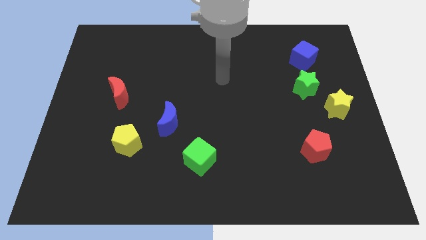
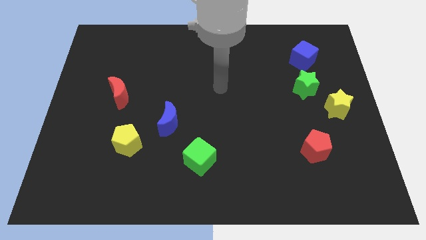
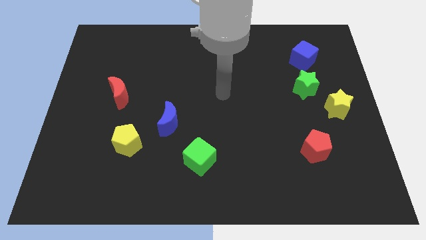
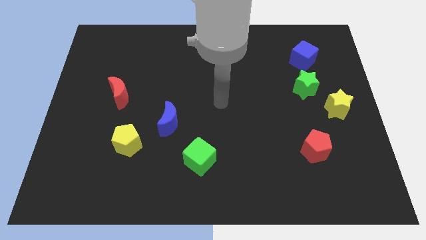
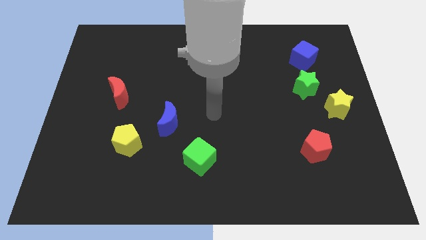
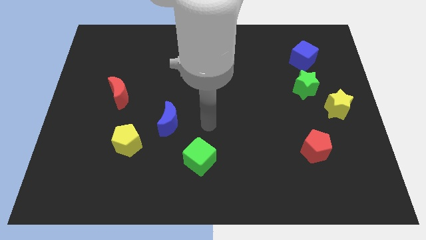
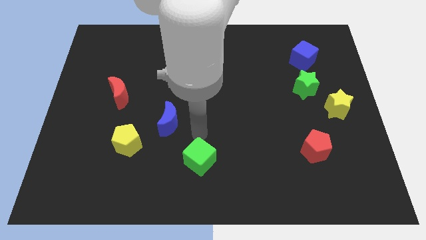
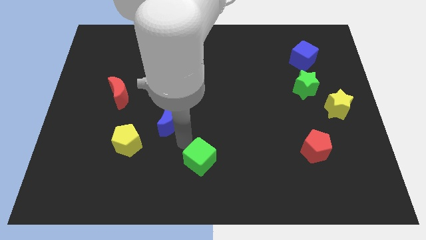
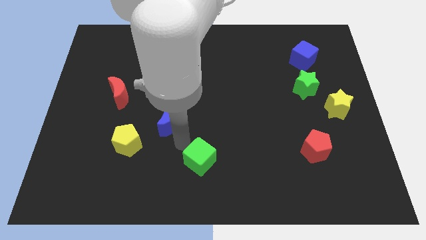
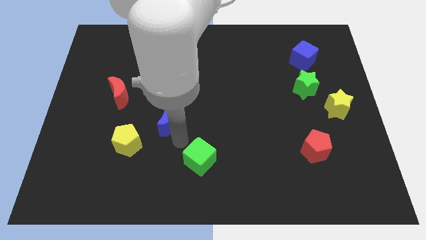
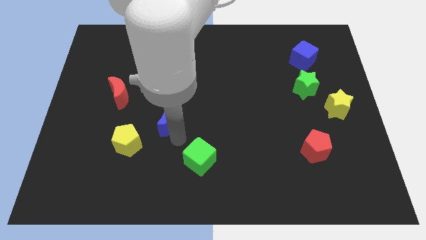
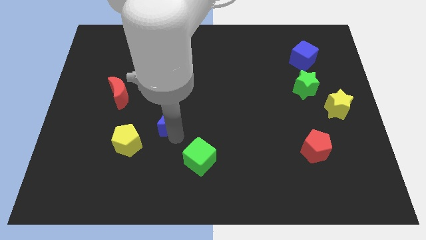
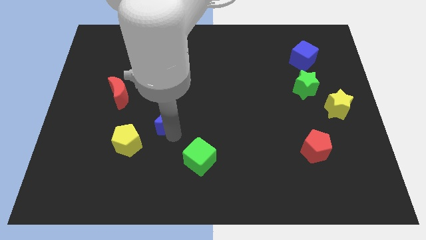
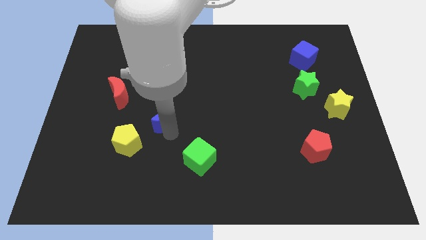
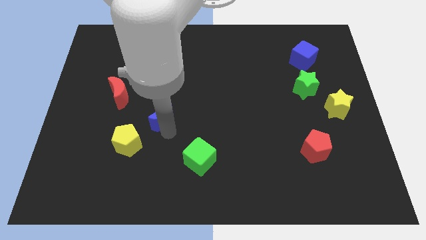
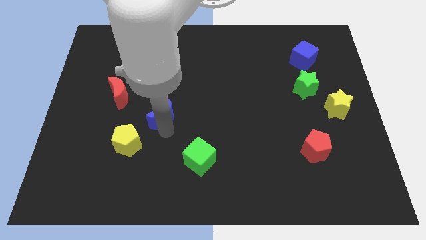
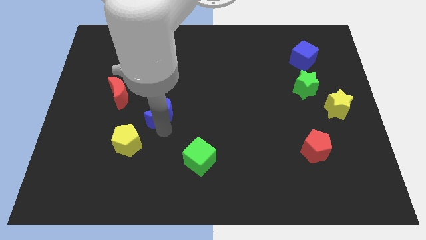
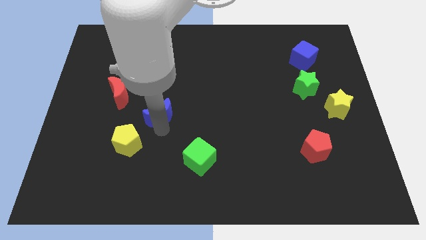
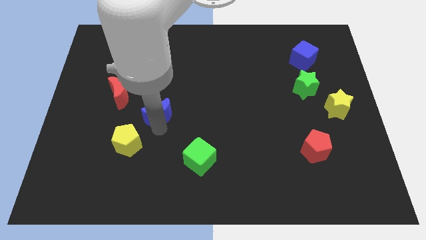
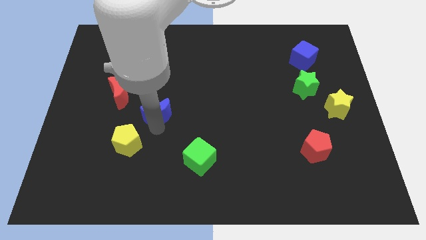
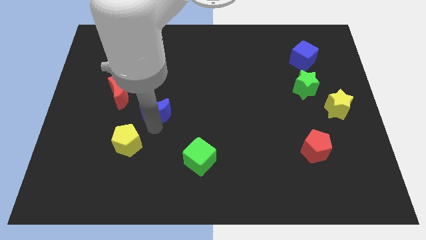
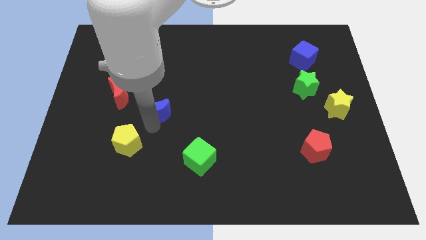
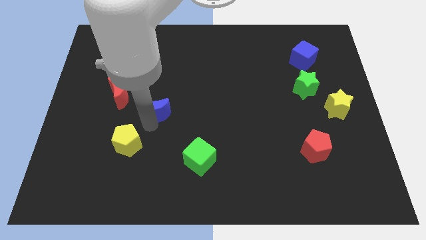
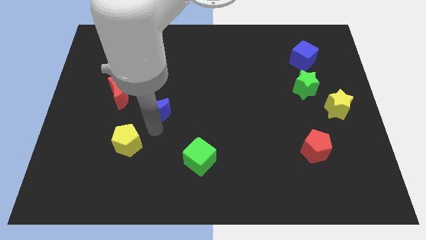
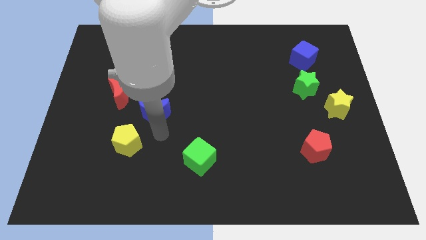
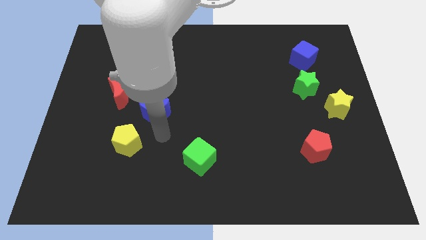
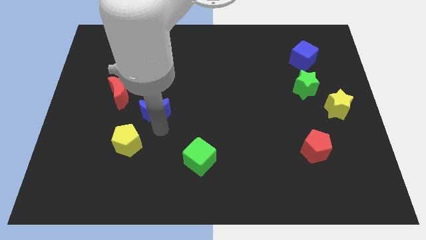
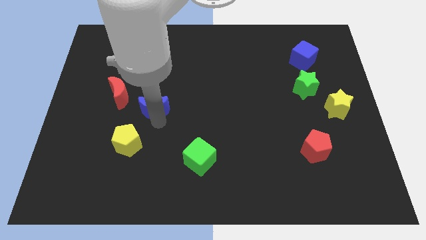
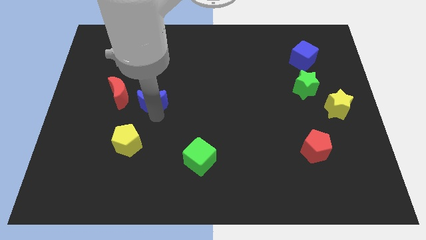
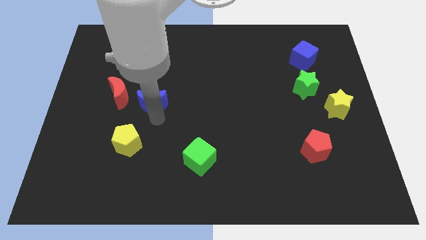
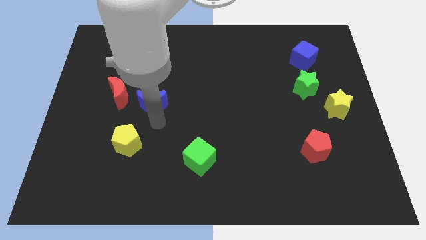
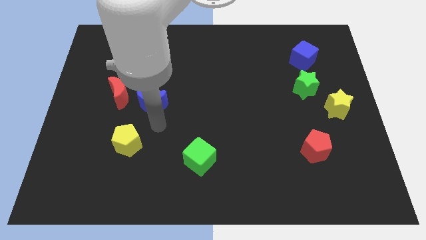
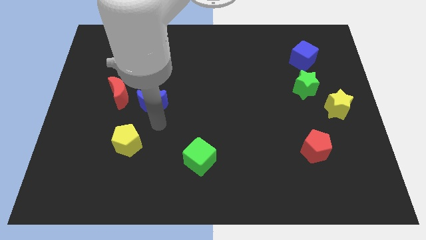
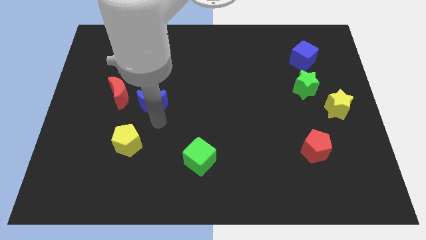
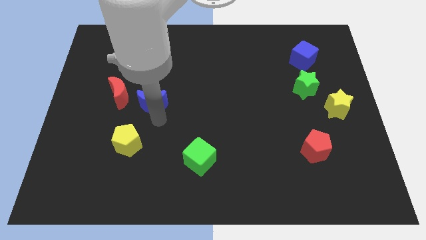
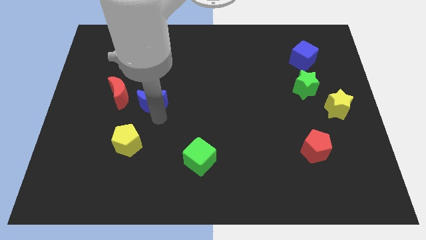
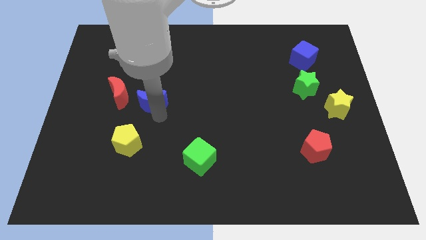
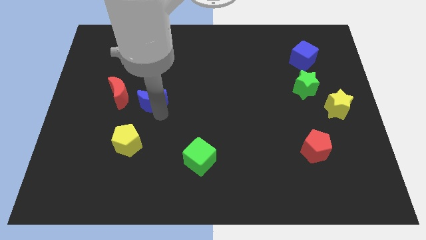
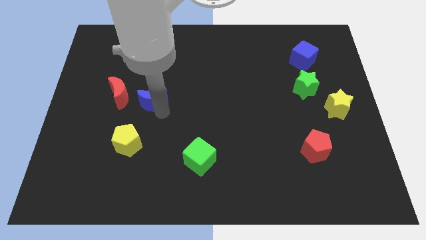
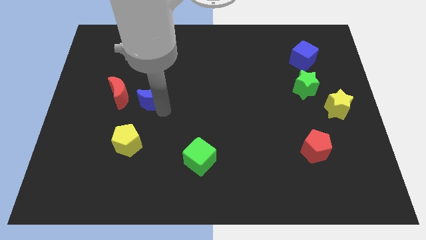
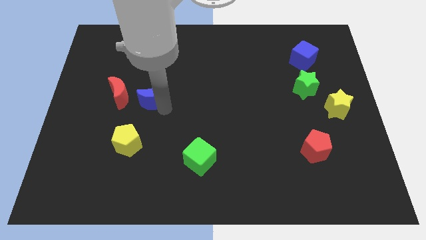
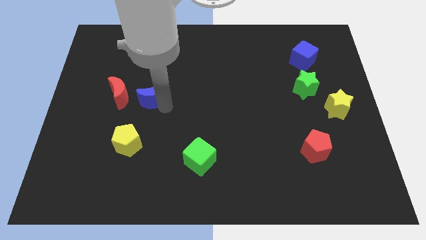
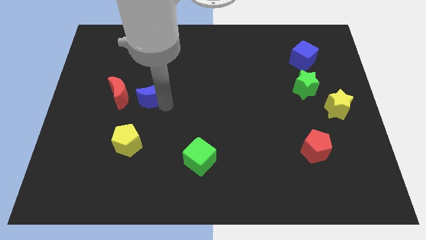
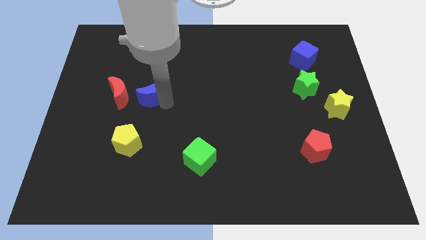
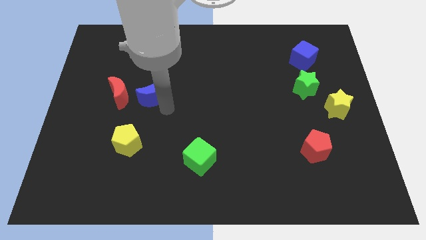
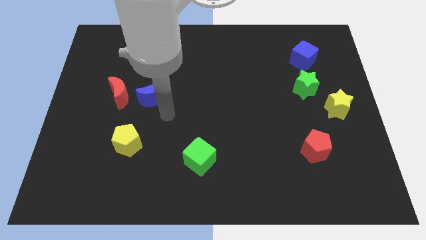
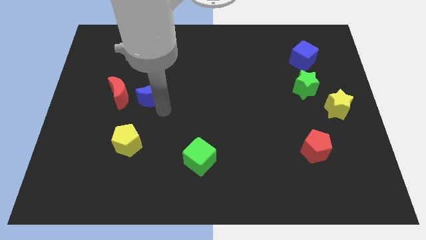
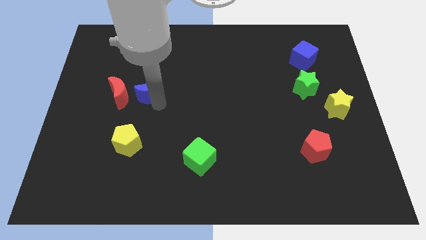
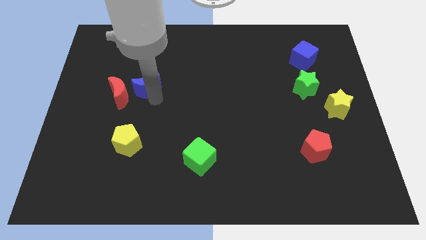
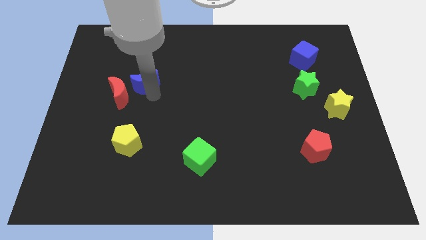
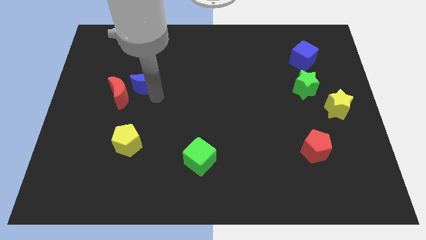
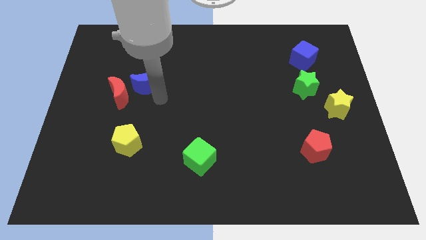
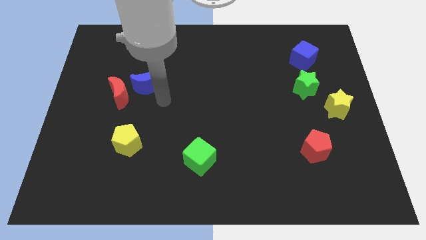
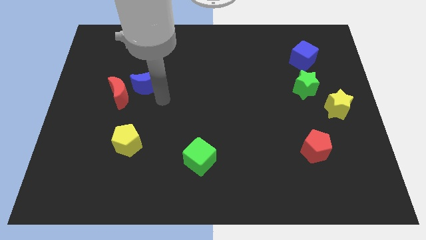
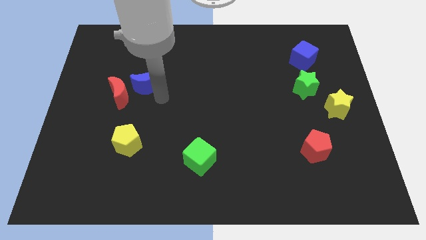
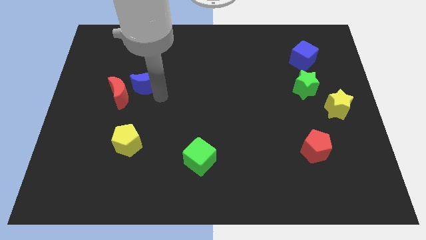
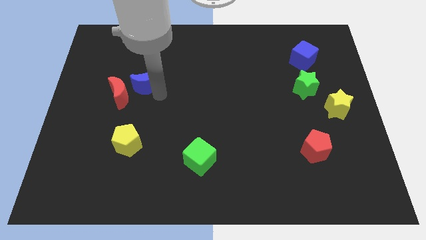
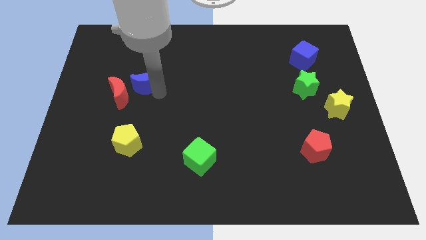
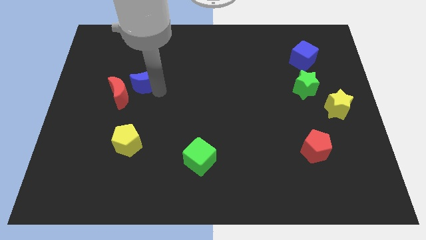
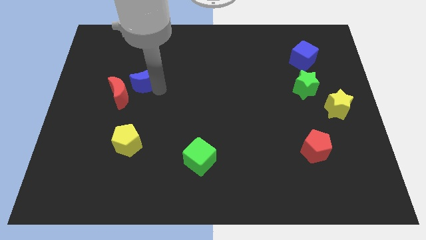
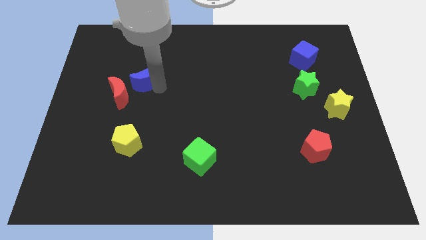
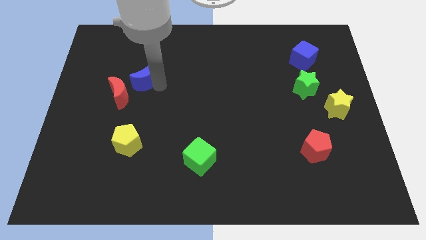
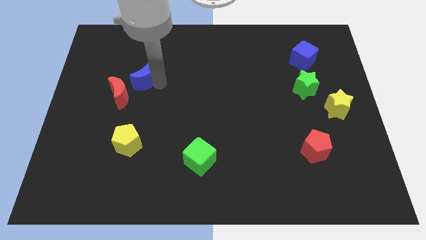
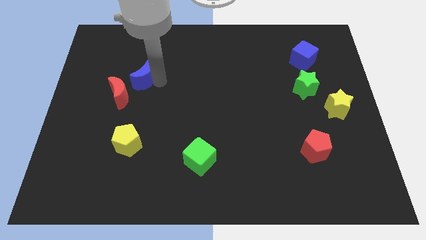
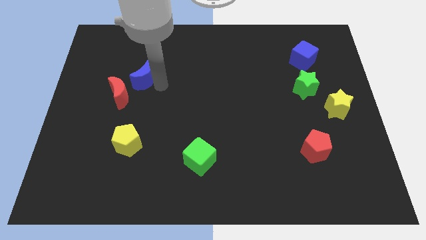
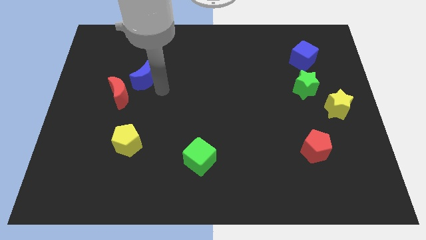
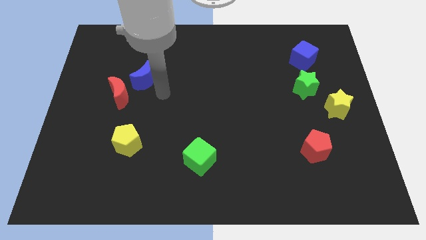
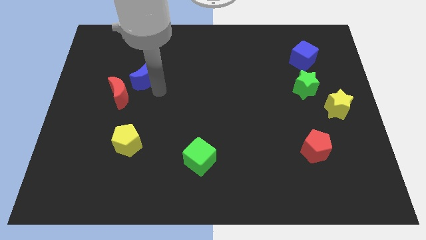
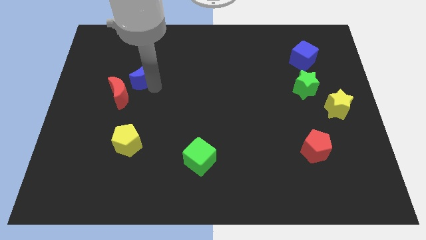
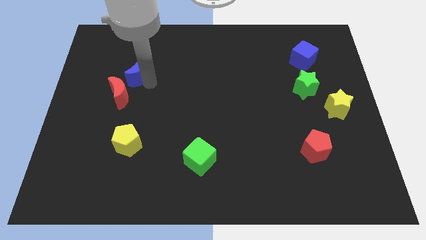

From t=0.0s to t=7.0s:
move the blue moon above the red moon
